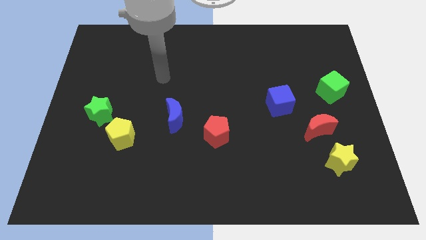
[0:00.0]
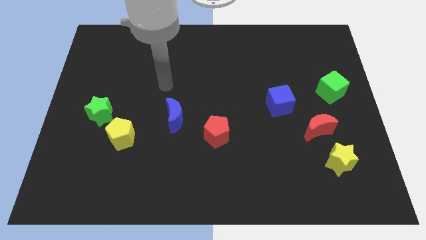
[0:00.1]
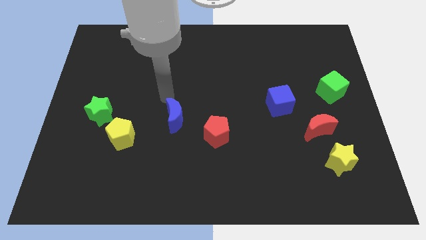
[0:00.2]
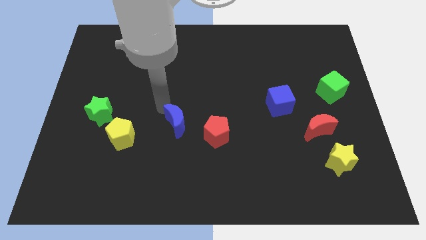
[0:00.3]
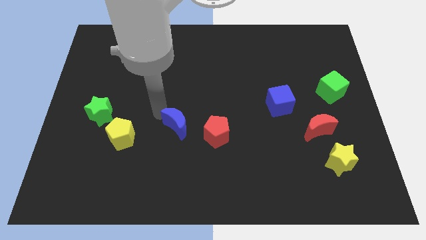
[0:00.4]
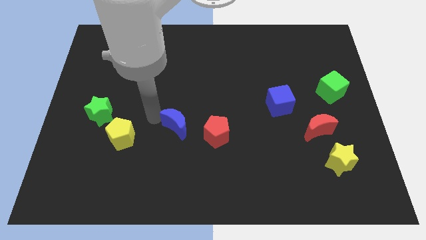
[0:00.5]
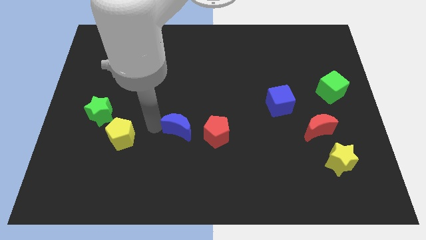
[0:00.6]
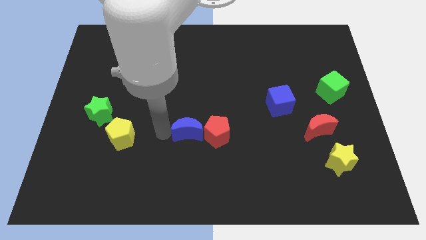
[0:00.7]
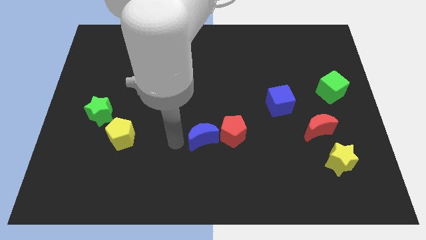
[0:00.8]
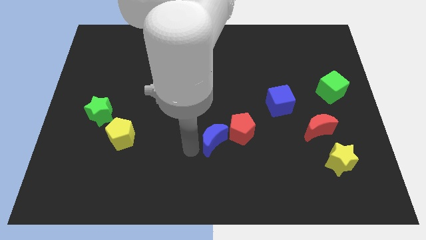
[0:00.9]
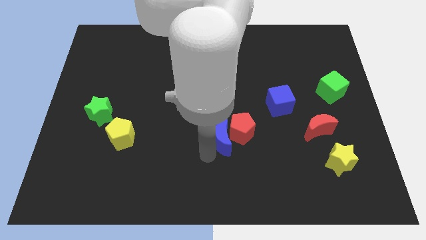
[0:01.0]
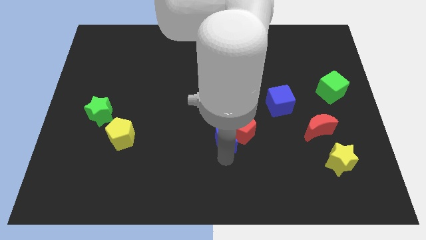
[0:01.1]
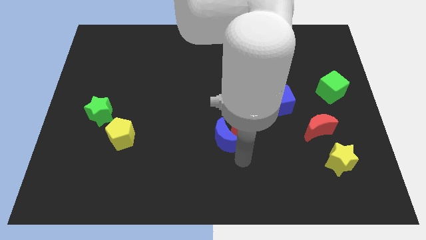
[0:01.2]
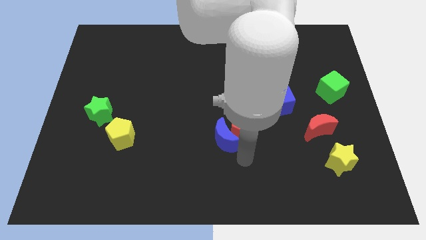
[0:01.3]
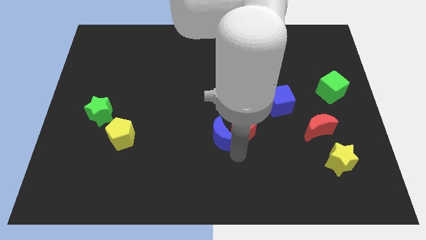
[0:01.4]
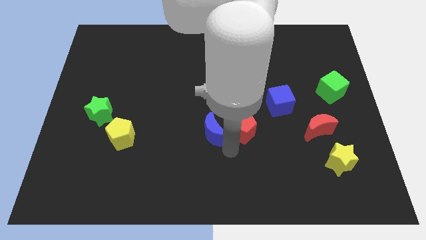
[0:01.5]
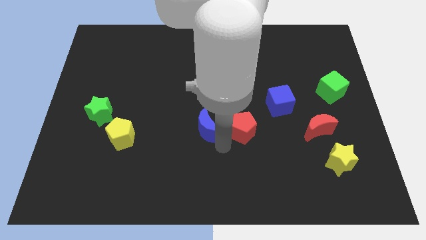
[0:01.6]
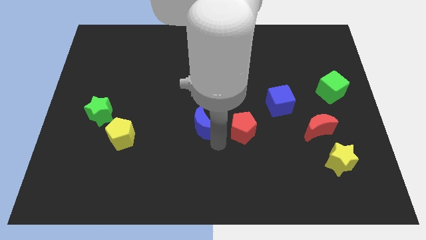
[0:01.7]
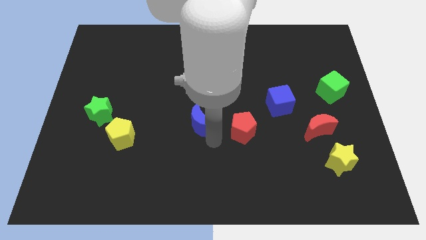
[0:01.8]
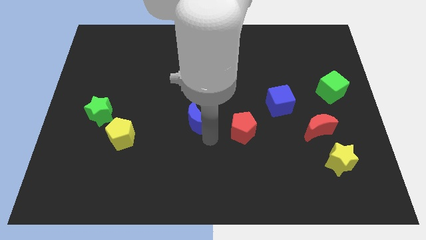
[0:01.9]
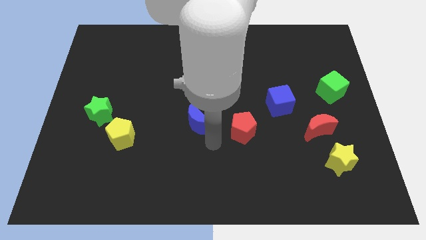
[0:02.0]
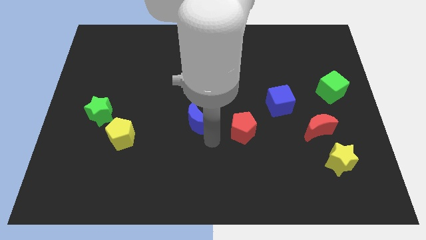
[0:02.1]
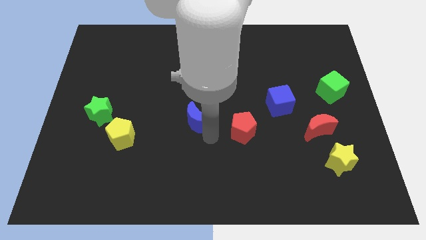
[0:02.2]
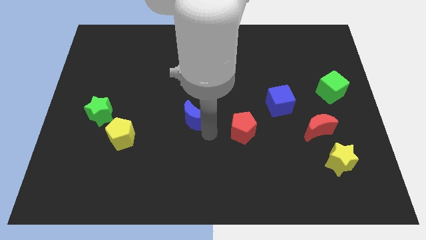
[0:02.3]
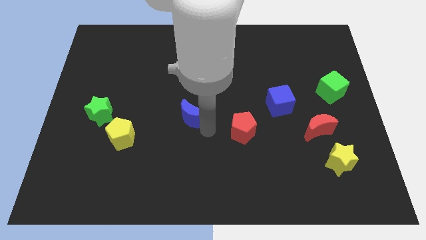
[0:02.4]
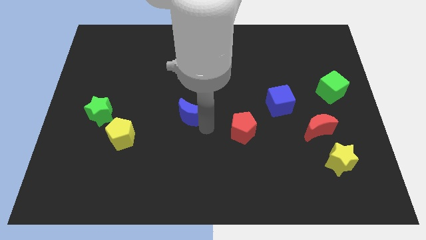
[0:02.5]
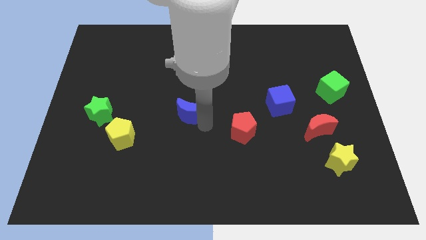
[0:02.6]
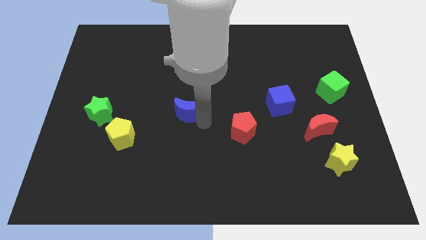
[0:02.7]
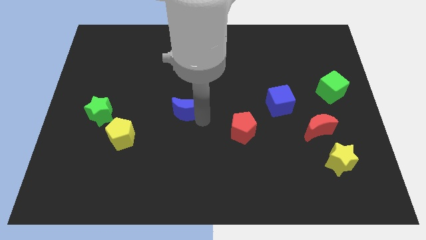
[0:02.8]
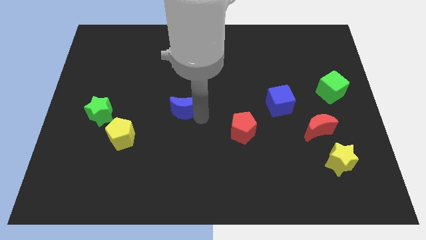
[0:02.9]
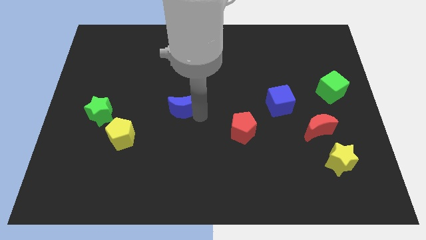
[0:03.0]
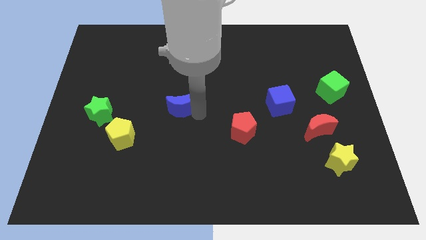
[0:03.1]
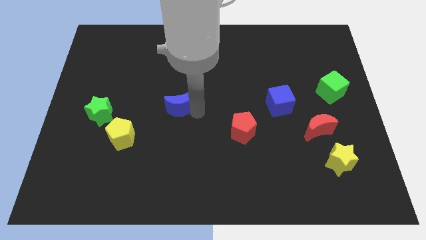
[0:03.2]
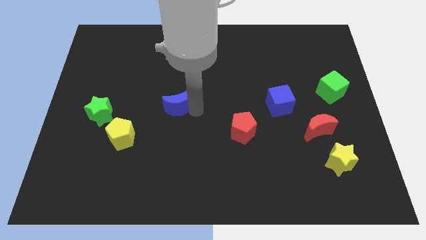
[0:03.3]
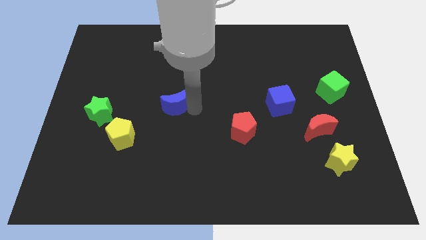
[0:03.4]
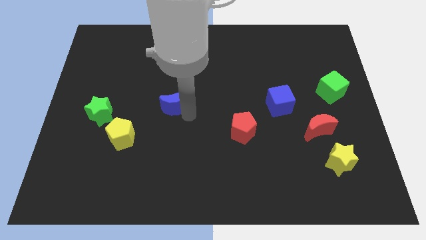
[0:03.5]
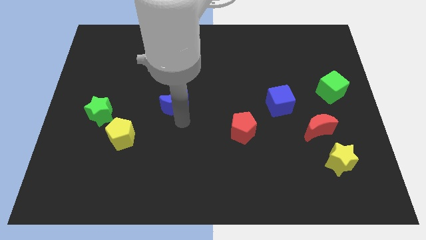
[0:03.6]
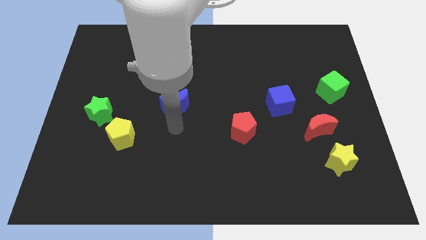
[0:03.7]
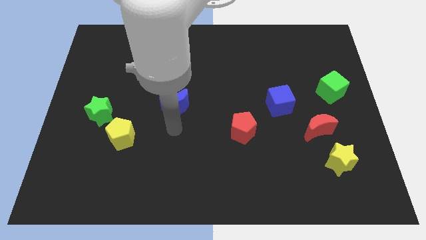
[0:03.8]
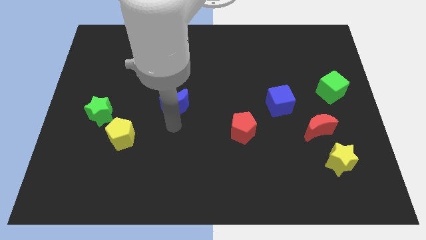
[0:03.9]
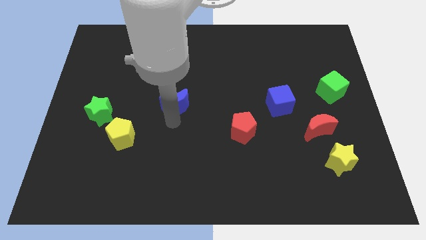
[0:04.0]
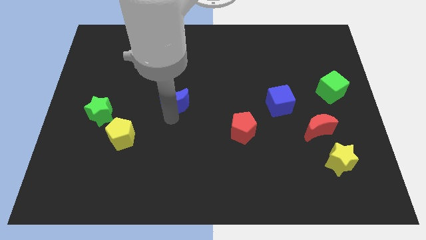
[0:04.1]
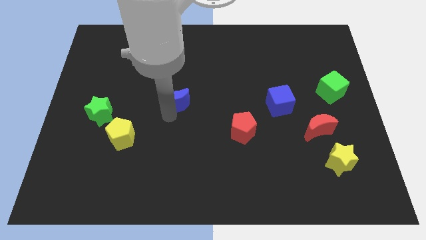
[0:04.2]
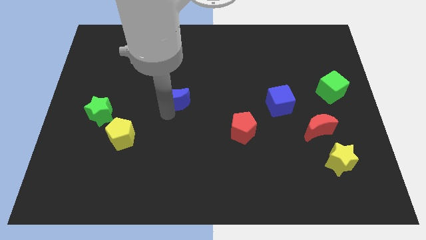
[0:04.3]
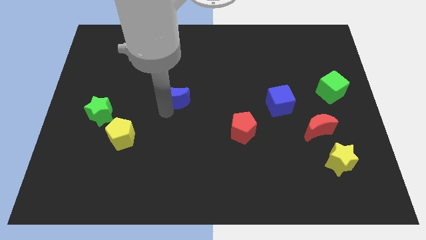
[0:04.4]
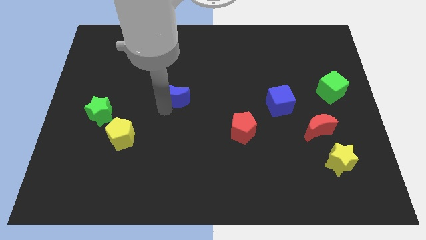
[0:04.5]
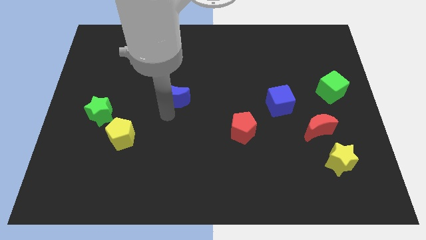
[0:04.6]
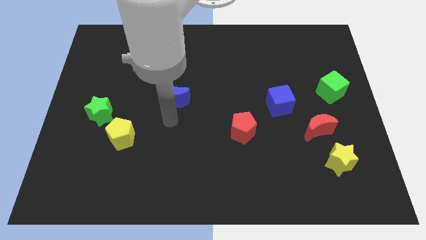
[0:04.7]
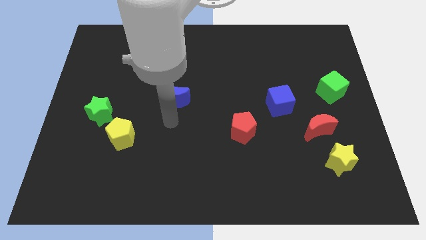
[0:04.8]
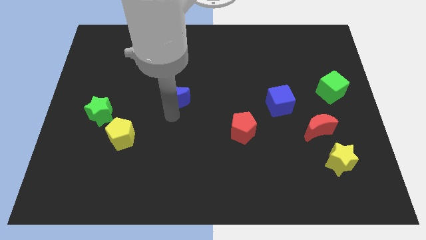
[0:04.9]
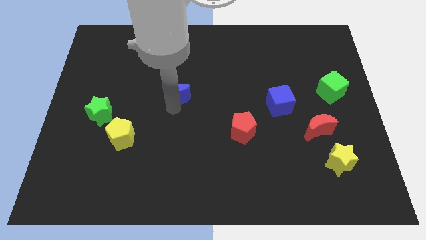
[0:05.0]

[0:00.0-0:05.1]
slide the blue moon up somewhat

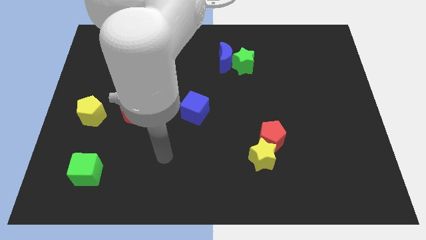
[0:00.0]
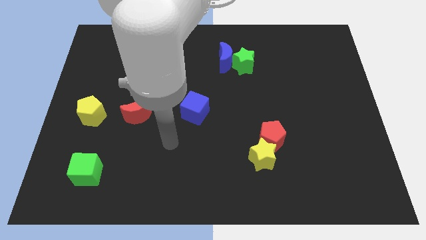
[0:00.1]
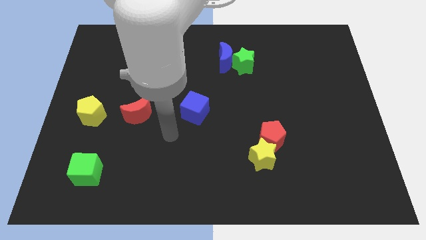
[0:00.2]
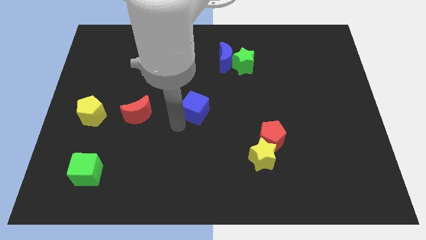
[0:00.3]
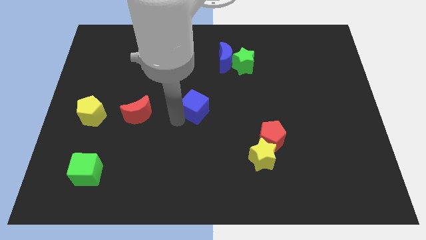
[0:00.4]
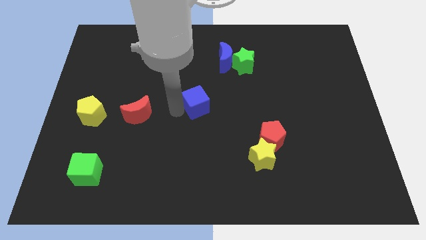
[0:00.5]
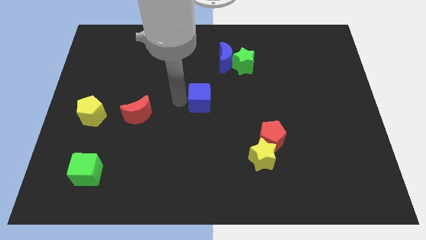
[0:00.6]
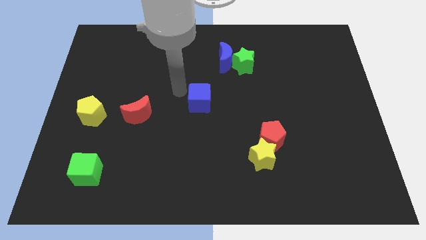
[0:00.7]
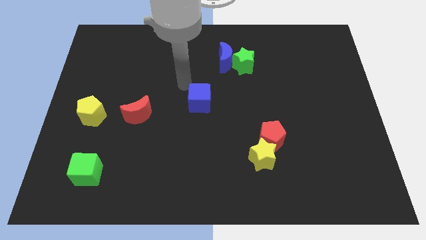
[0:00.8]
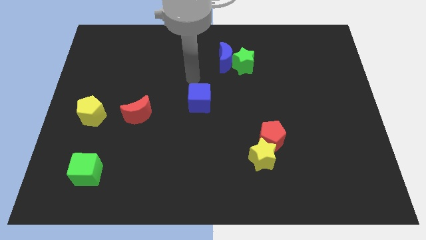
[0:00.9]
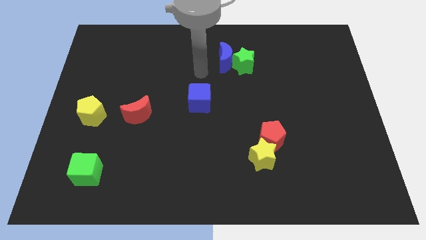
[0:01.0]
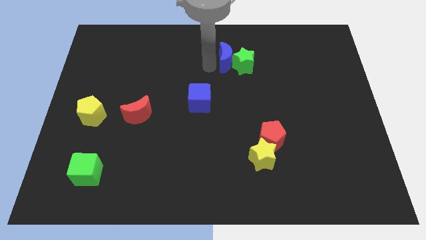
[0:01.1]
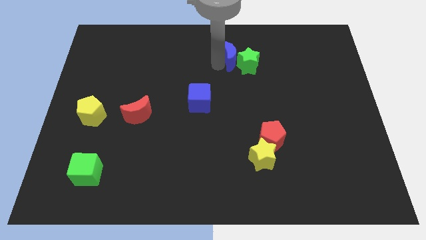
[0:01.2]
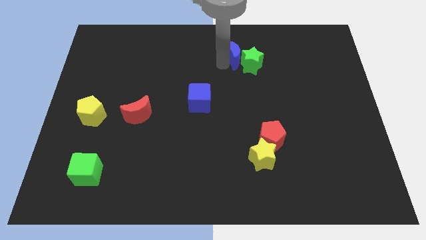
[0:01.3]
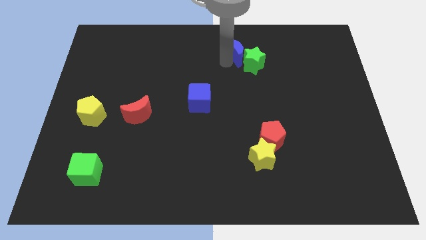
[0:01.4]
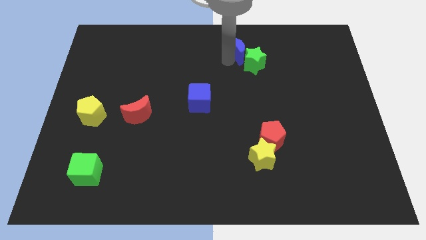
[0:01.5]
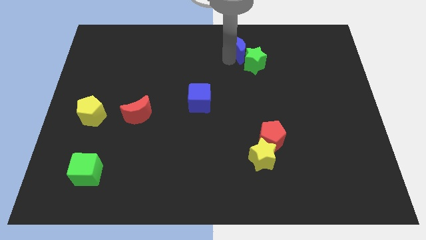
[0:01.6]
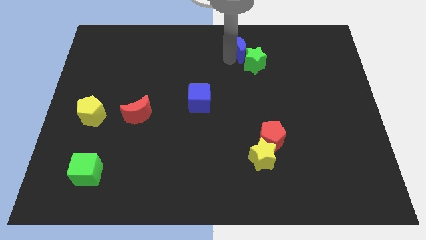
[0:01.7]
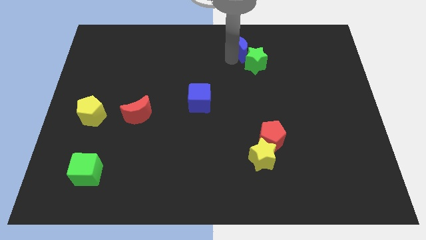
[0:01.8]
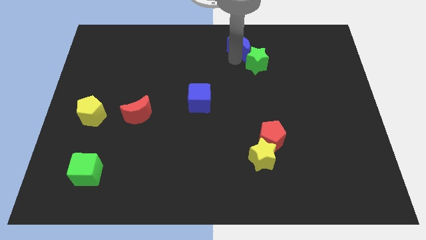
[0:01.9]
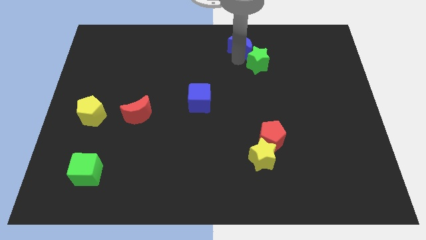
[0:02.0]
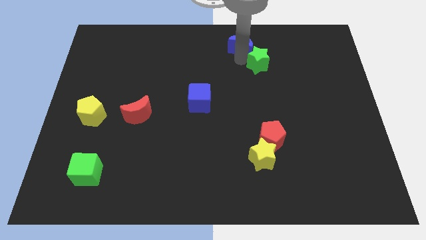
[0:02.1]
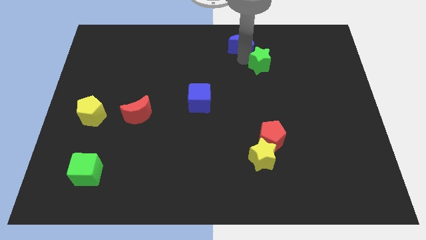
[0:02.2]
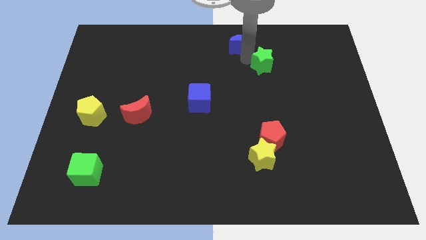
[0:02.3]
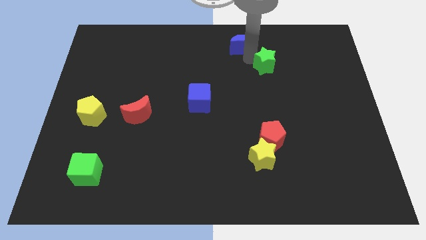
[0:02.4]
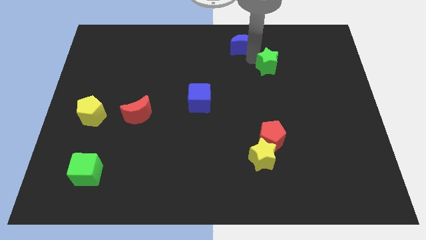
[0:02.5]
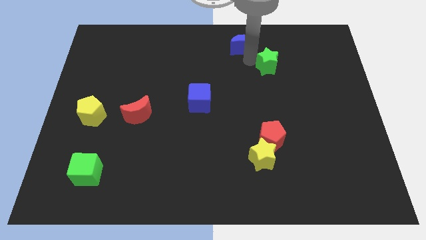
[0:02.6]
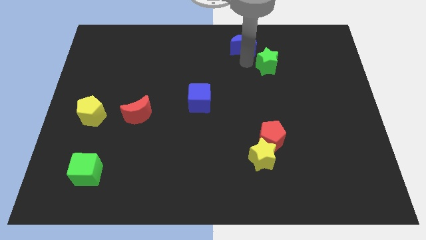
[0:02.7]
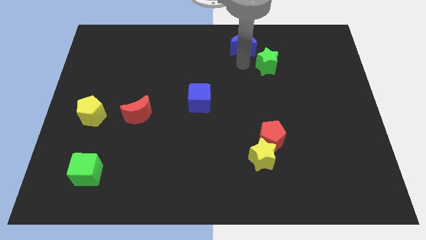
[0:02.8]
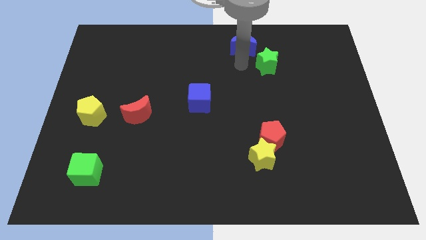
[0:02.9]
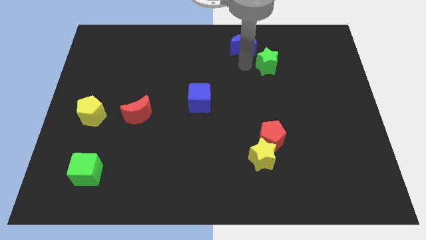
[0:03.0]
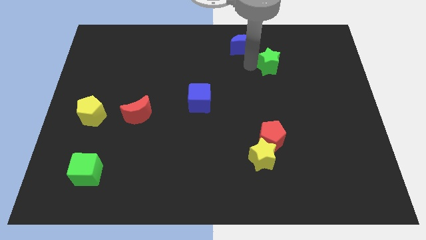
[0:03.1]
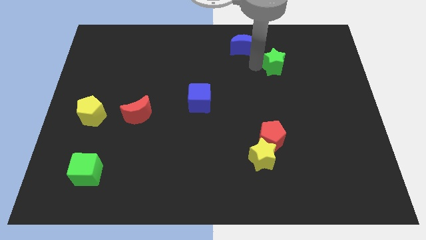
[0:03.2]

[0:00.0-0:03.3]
slide the green star slightly to the right
